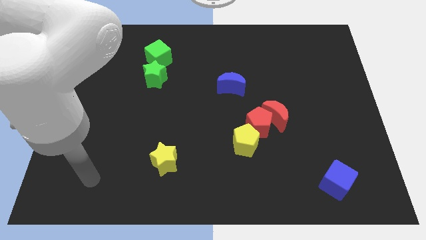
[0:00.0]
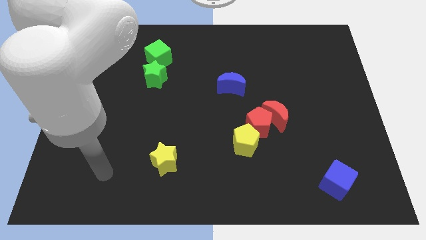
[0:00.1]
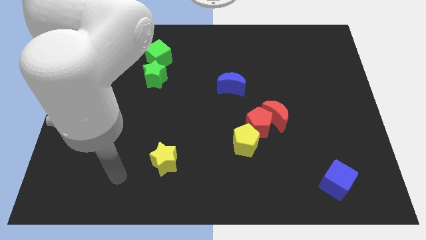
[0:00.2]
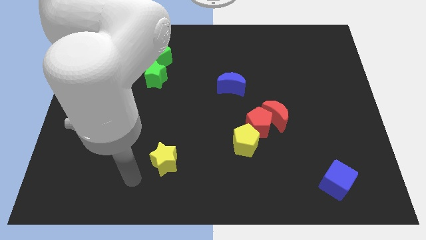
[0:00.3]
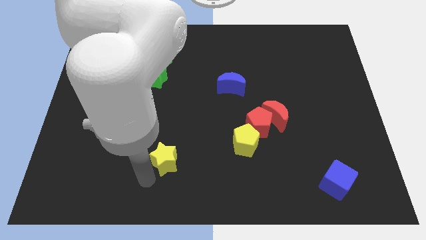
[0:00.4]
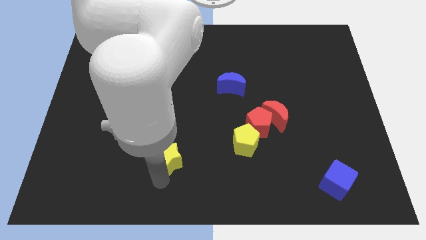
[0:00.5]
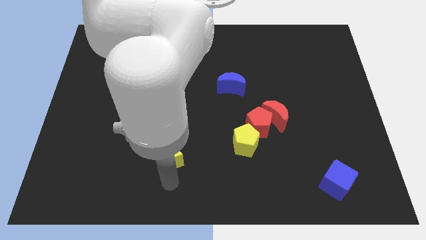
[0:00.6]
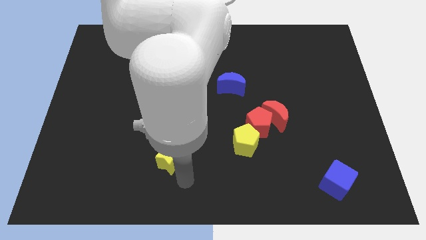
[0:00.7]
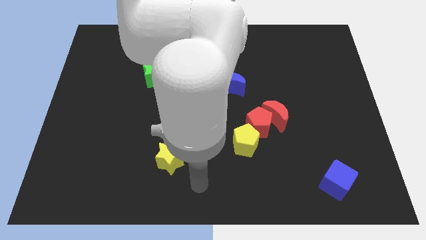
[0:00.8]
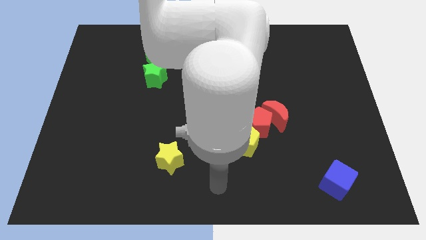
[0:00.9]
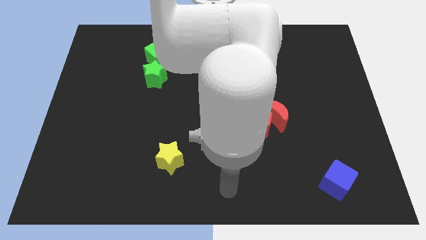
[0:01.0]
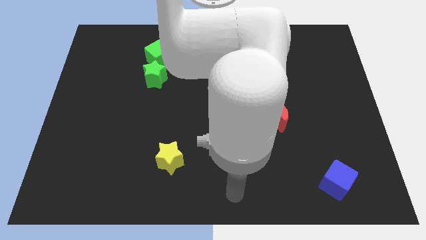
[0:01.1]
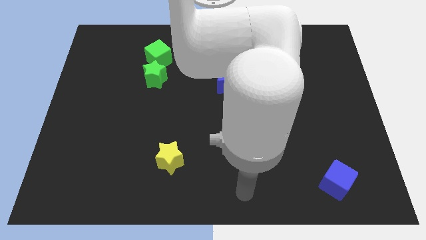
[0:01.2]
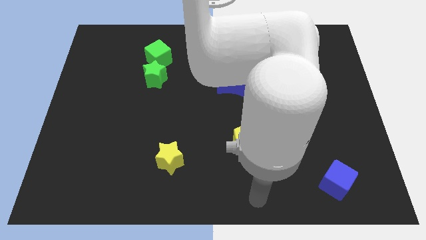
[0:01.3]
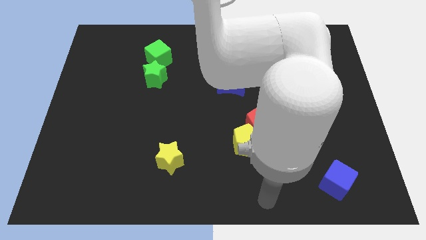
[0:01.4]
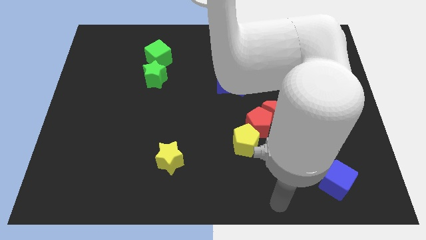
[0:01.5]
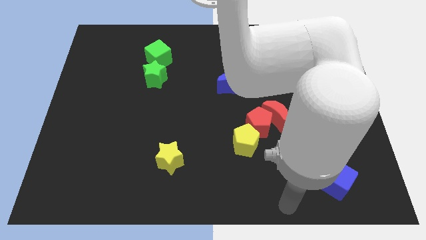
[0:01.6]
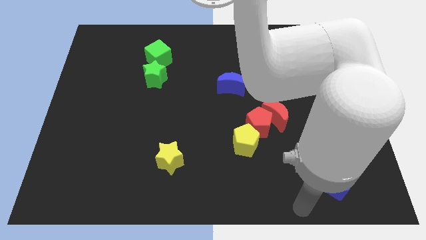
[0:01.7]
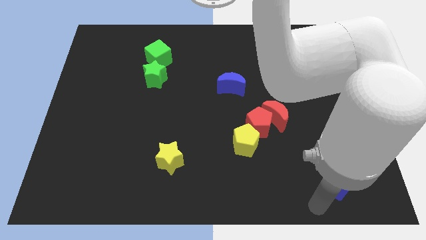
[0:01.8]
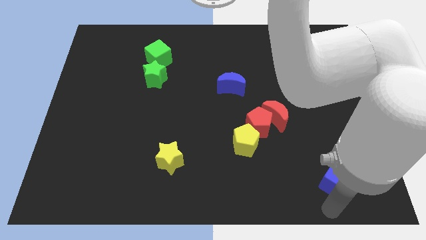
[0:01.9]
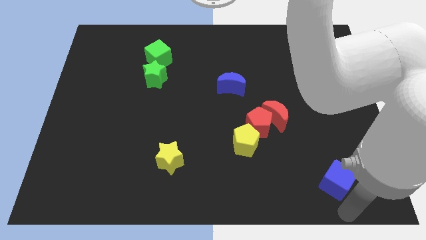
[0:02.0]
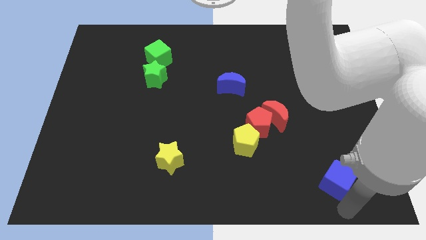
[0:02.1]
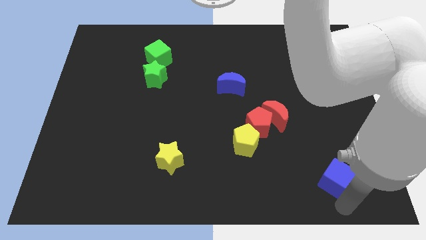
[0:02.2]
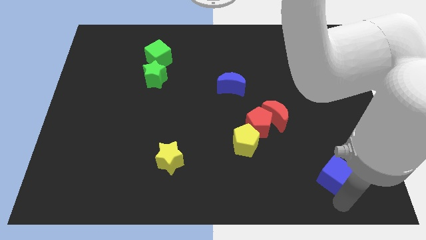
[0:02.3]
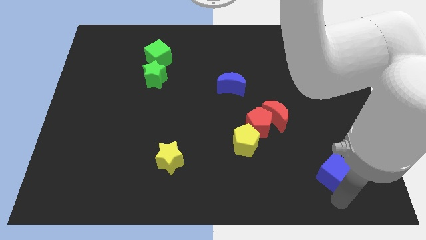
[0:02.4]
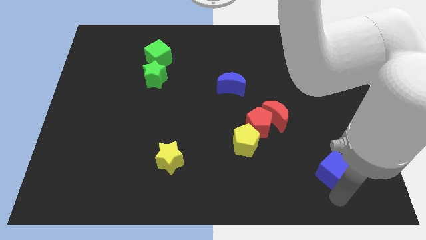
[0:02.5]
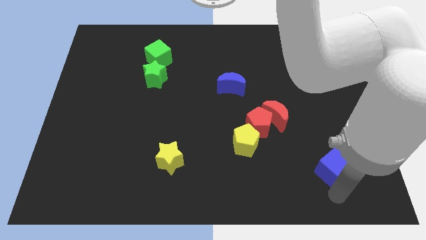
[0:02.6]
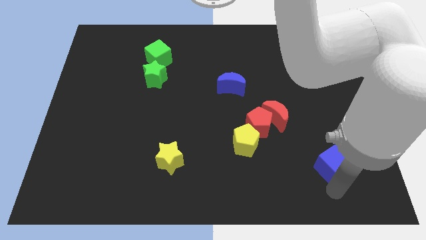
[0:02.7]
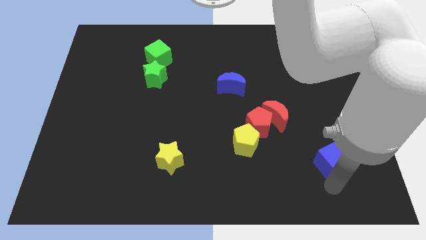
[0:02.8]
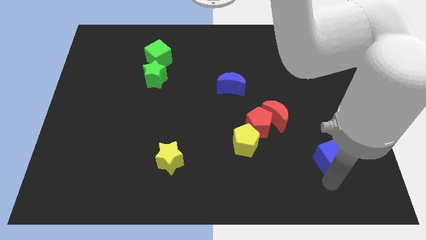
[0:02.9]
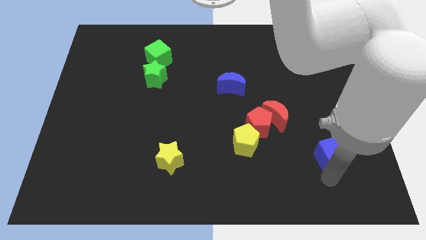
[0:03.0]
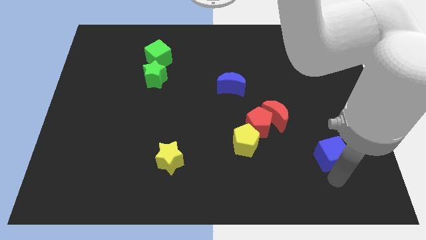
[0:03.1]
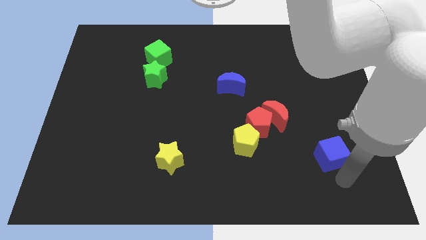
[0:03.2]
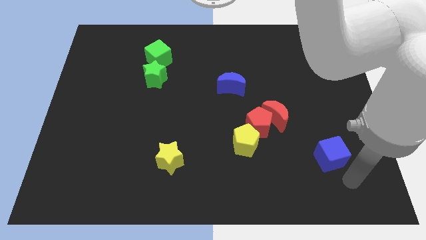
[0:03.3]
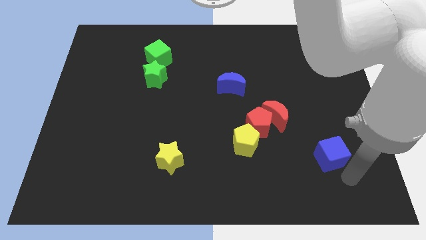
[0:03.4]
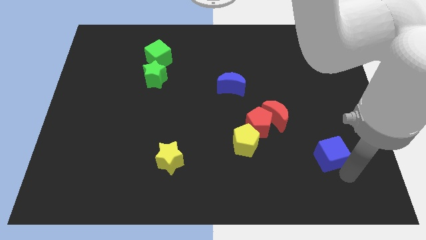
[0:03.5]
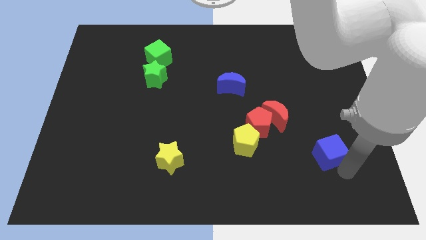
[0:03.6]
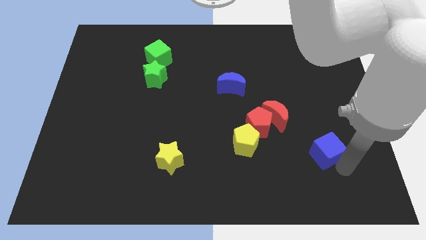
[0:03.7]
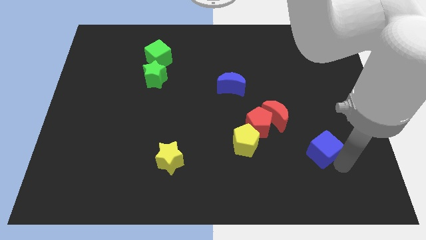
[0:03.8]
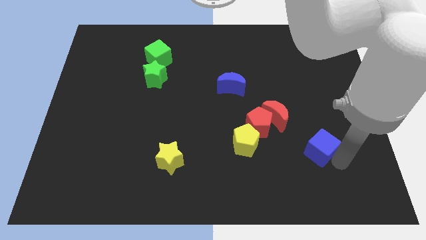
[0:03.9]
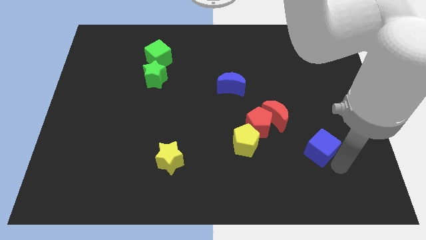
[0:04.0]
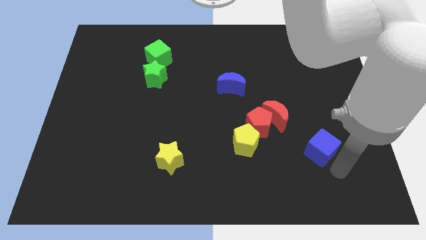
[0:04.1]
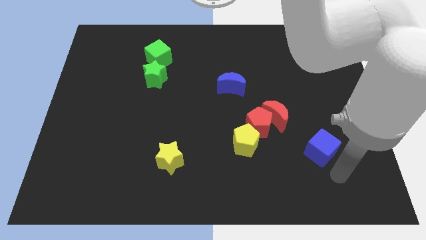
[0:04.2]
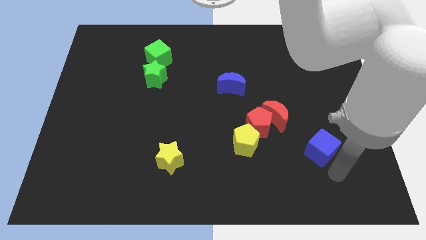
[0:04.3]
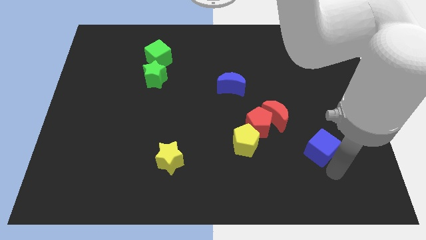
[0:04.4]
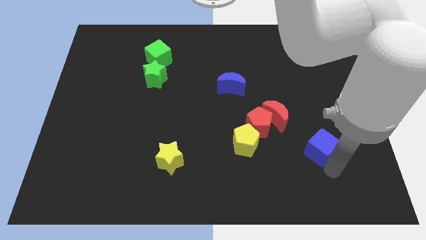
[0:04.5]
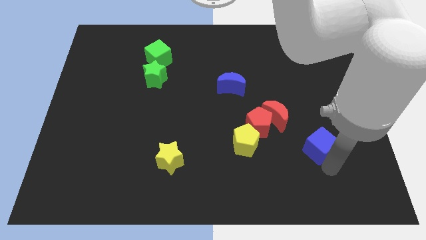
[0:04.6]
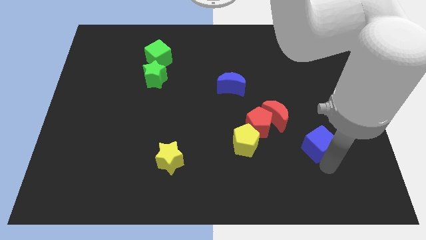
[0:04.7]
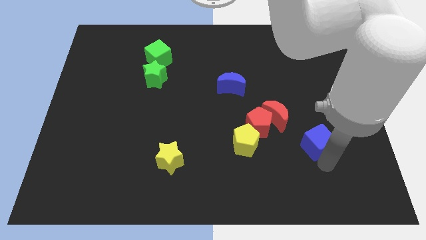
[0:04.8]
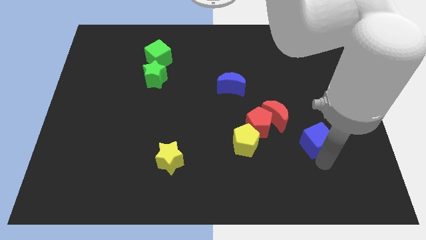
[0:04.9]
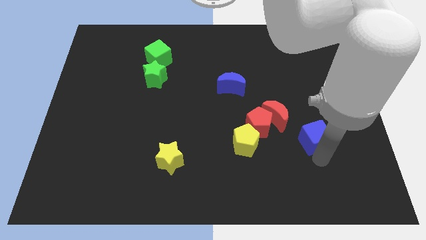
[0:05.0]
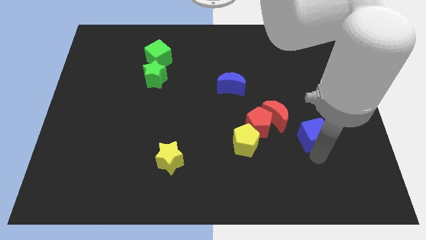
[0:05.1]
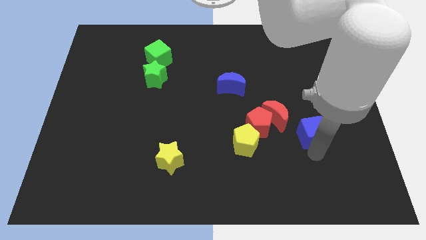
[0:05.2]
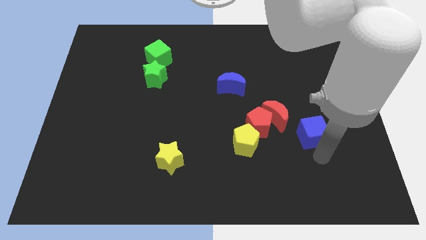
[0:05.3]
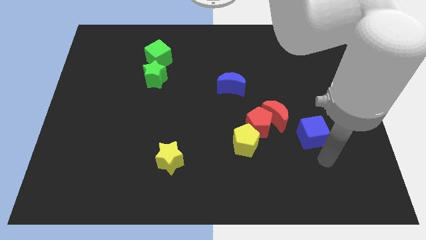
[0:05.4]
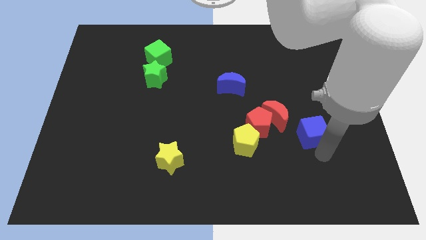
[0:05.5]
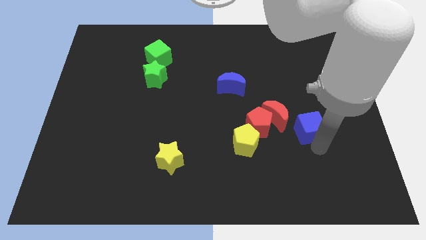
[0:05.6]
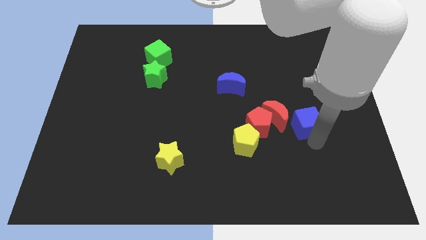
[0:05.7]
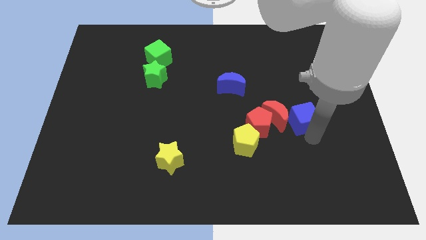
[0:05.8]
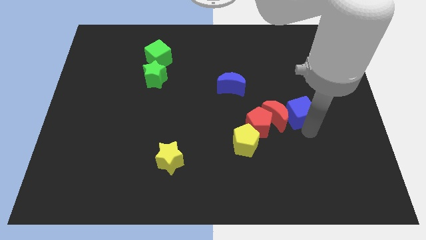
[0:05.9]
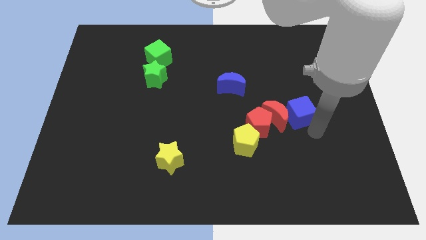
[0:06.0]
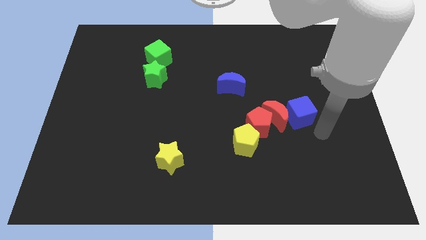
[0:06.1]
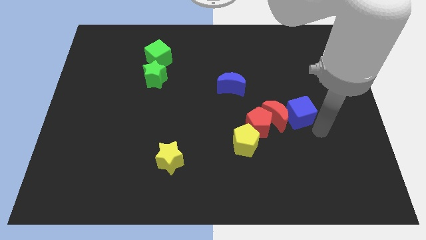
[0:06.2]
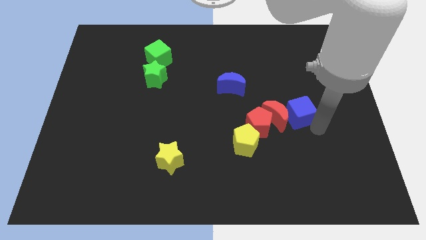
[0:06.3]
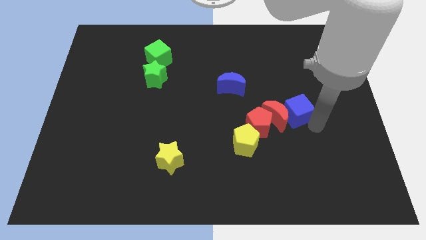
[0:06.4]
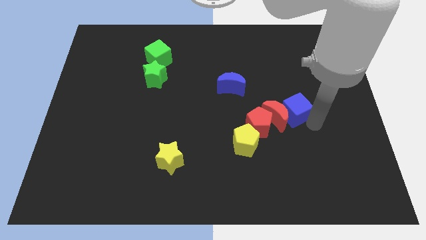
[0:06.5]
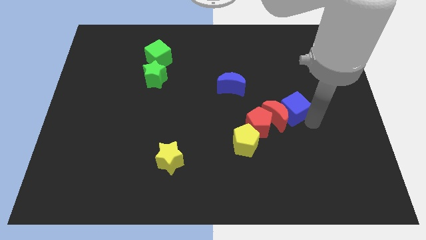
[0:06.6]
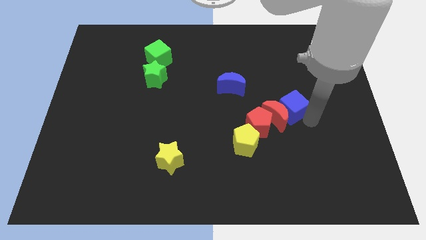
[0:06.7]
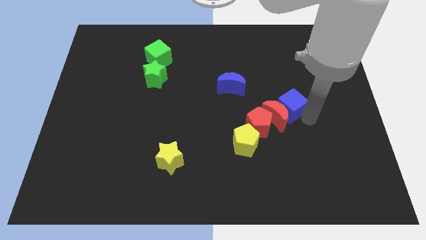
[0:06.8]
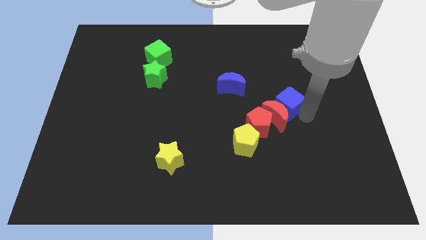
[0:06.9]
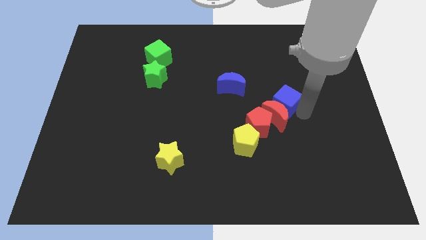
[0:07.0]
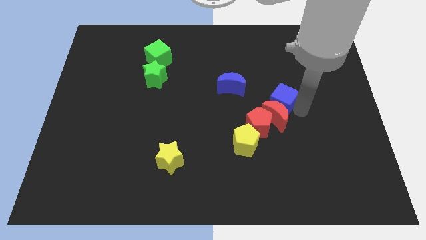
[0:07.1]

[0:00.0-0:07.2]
move the blue cube to the top left of the red moon
